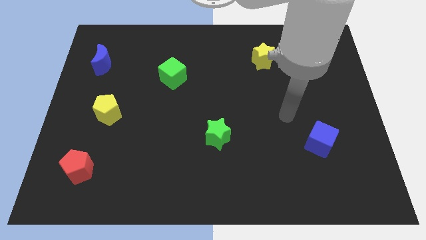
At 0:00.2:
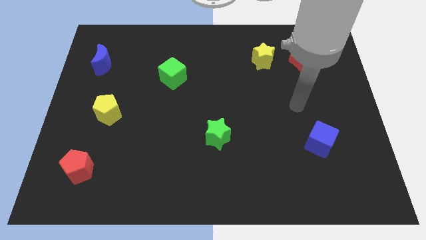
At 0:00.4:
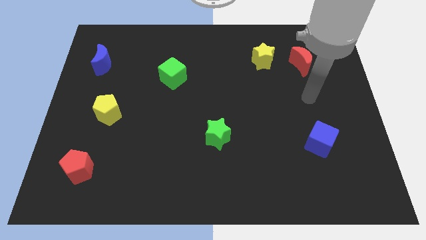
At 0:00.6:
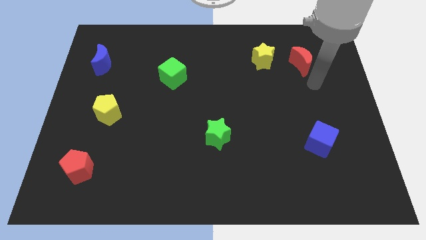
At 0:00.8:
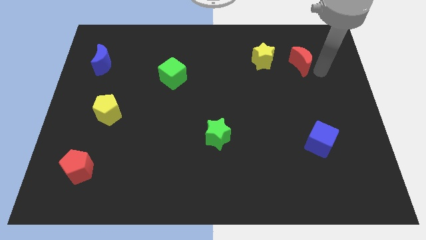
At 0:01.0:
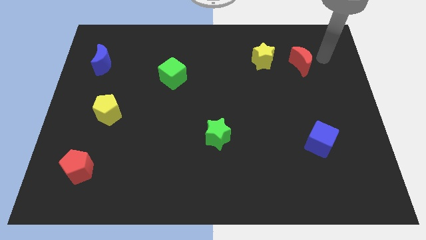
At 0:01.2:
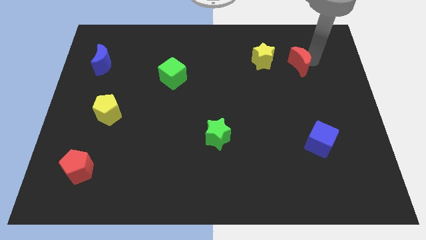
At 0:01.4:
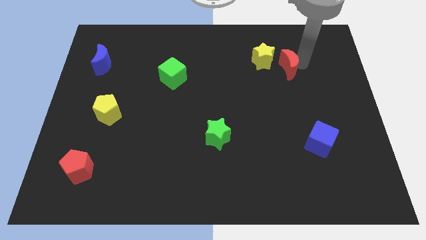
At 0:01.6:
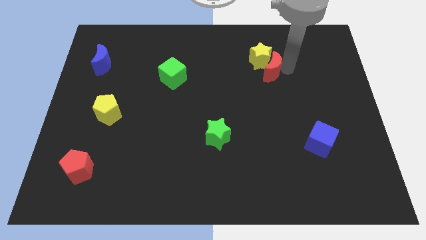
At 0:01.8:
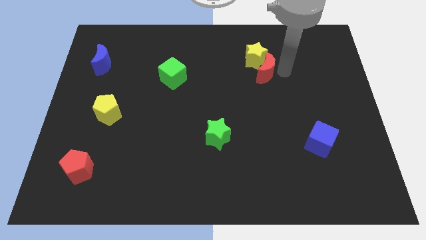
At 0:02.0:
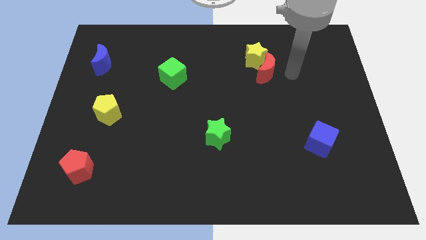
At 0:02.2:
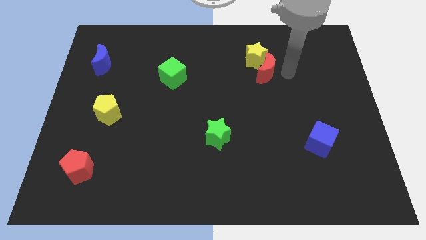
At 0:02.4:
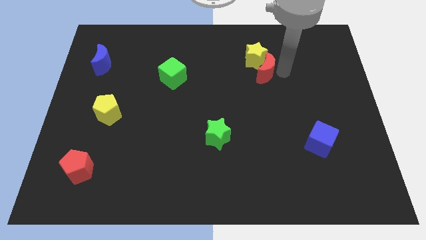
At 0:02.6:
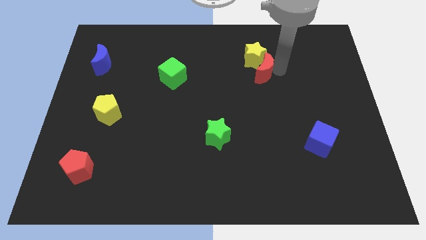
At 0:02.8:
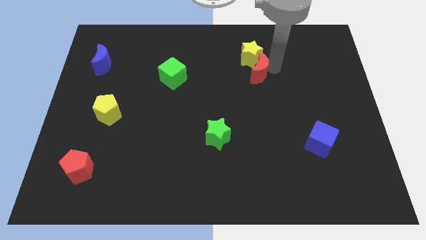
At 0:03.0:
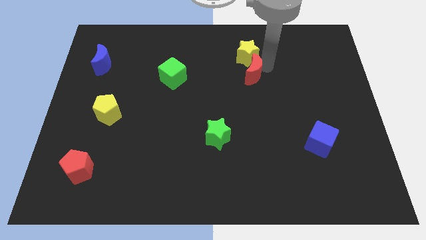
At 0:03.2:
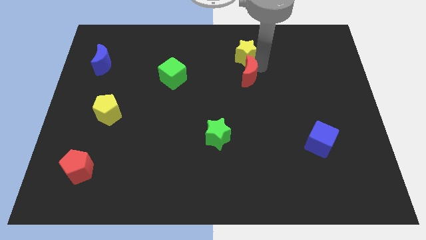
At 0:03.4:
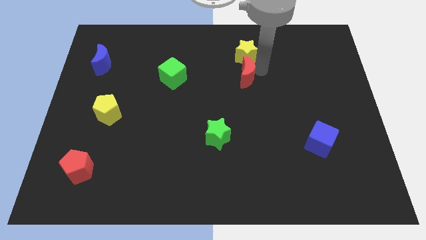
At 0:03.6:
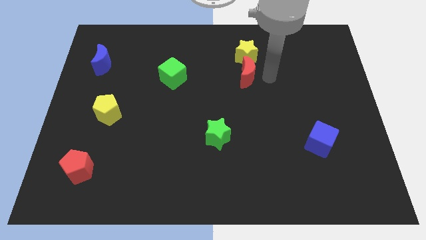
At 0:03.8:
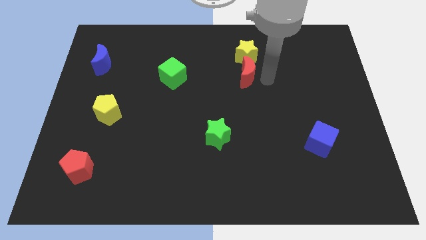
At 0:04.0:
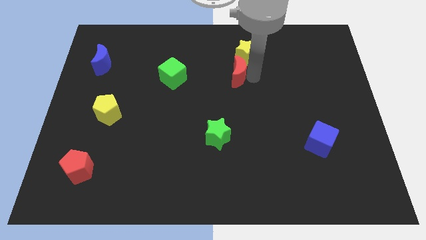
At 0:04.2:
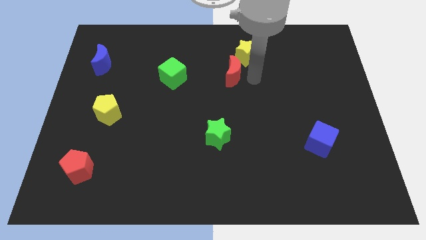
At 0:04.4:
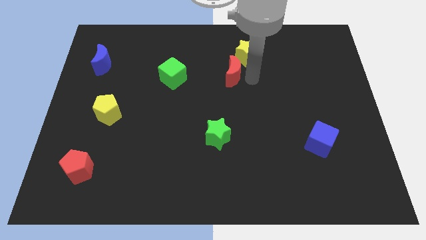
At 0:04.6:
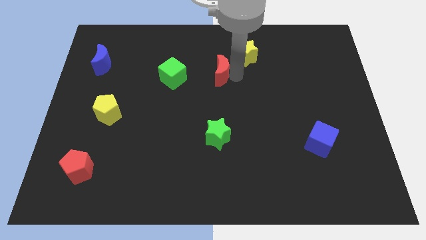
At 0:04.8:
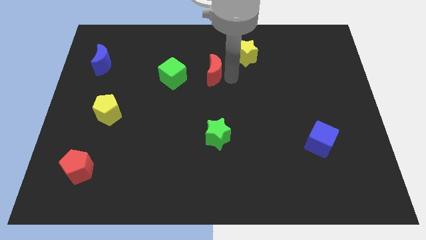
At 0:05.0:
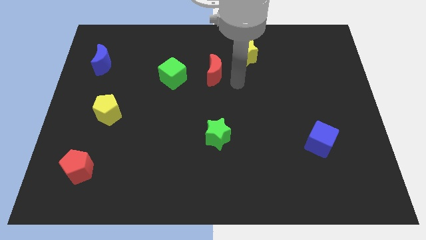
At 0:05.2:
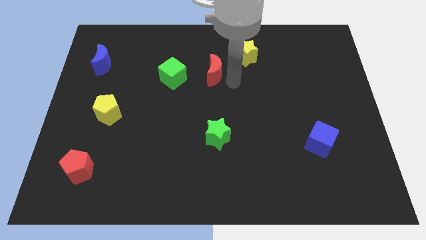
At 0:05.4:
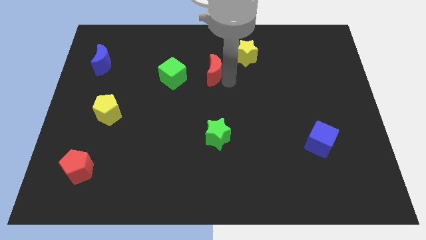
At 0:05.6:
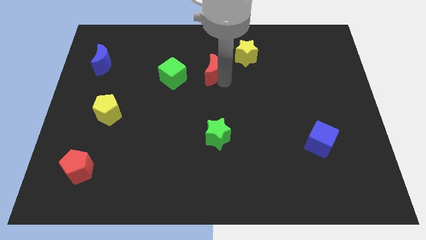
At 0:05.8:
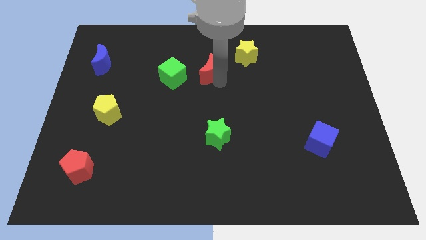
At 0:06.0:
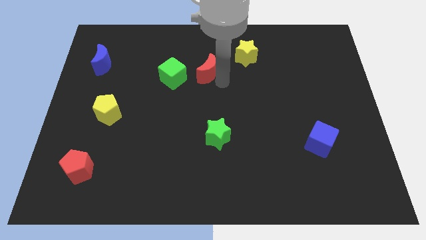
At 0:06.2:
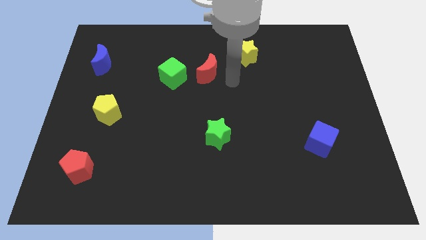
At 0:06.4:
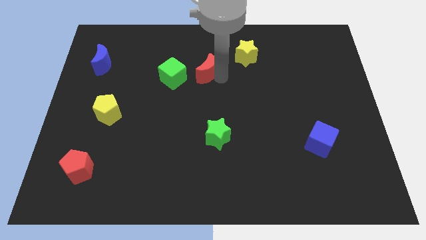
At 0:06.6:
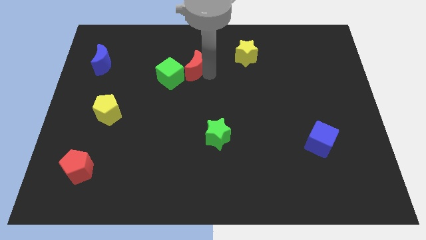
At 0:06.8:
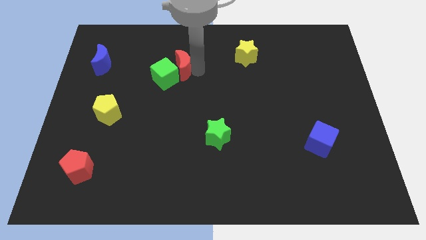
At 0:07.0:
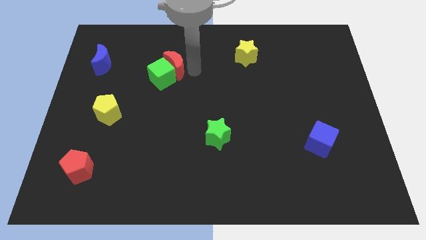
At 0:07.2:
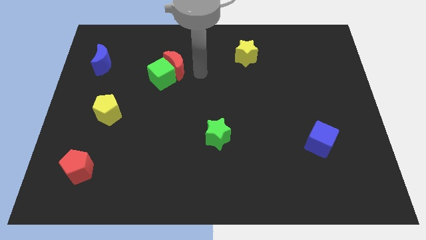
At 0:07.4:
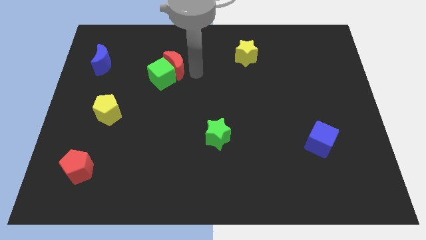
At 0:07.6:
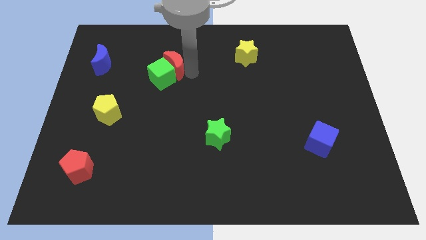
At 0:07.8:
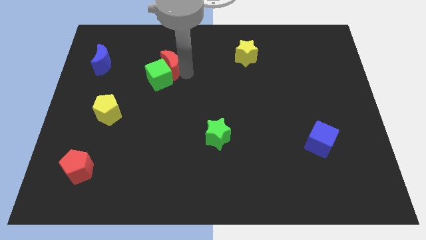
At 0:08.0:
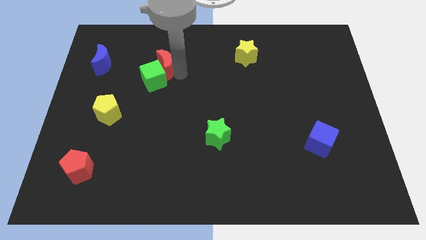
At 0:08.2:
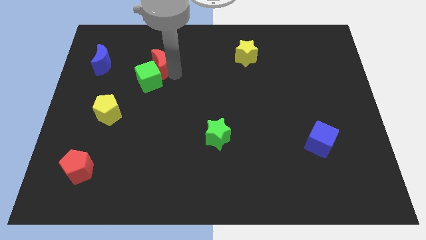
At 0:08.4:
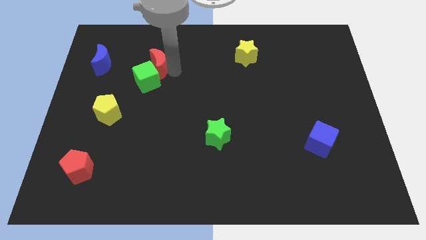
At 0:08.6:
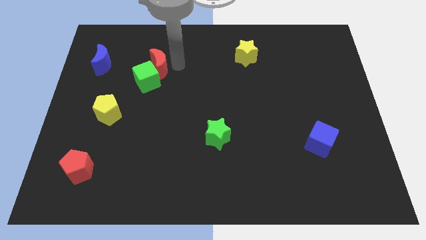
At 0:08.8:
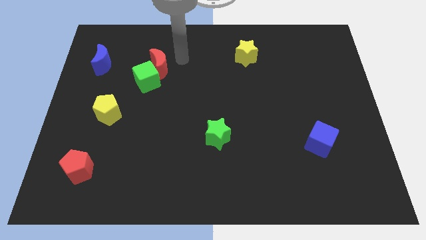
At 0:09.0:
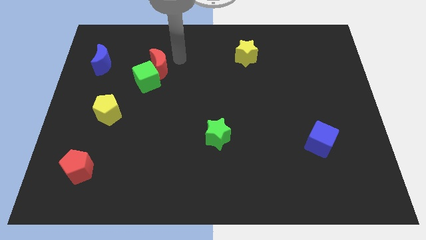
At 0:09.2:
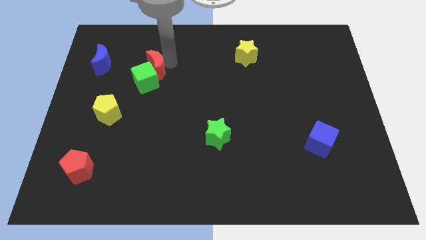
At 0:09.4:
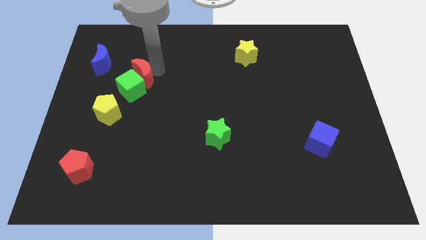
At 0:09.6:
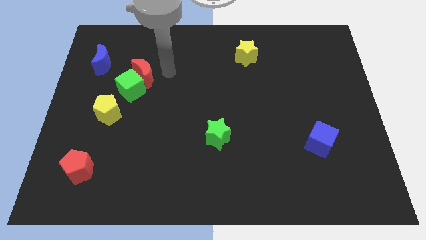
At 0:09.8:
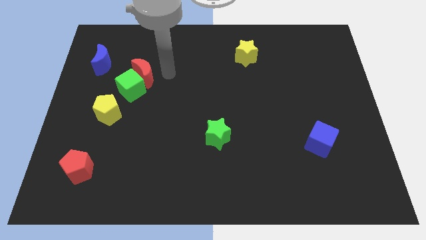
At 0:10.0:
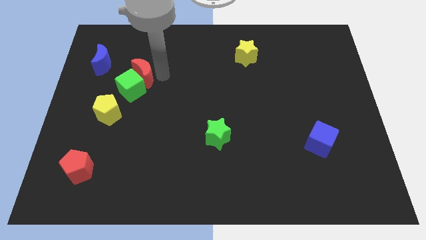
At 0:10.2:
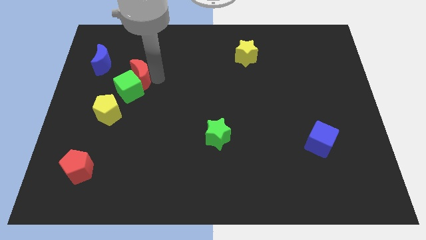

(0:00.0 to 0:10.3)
slide the red moon diagonally down and to the right of the blue moon

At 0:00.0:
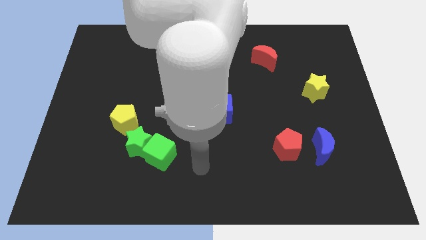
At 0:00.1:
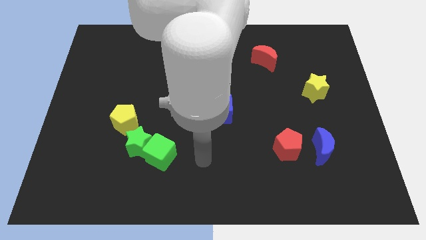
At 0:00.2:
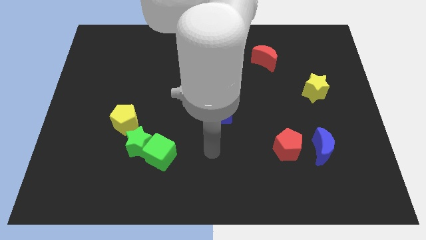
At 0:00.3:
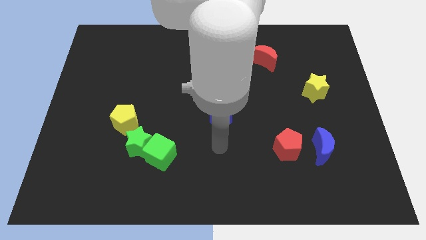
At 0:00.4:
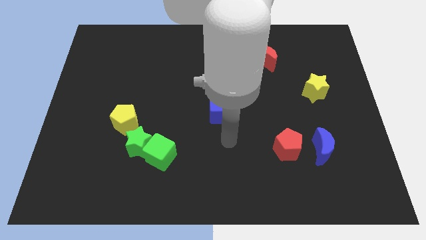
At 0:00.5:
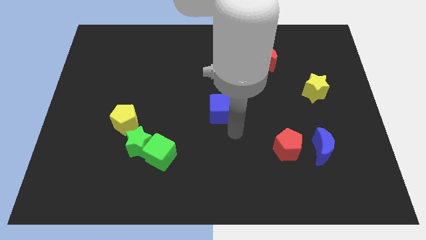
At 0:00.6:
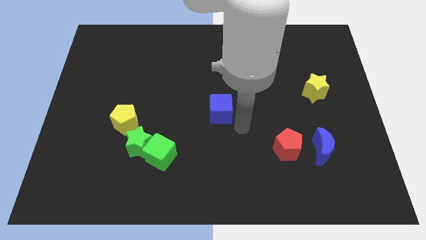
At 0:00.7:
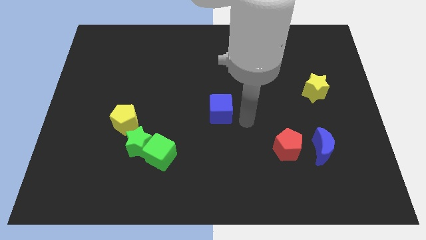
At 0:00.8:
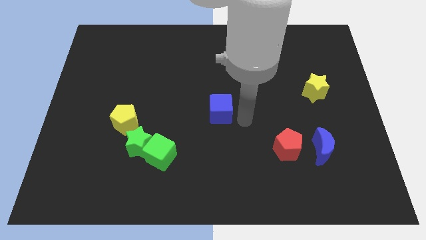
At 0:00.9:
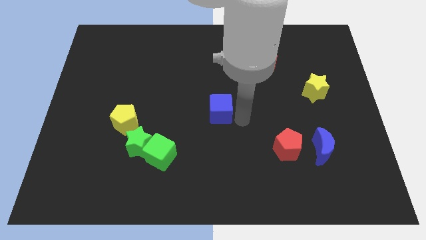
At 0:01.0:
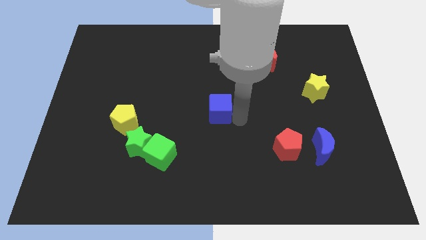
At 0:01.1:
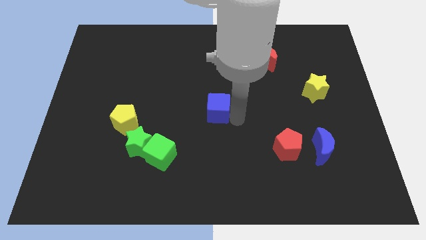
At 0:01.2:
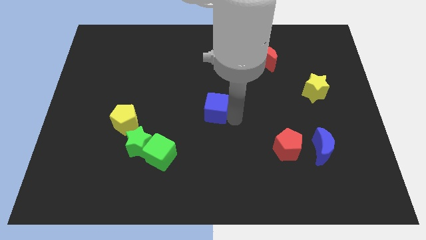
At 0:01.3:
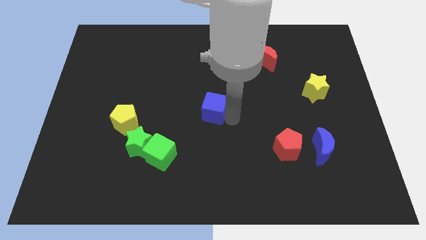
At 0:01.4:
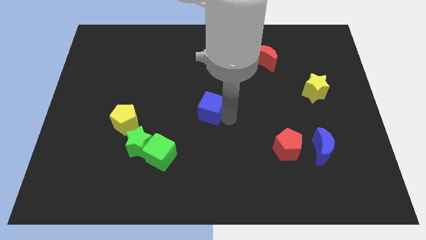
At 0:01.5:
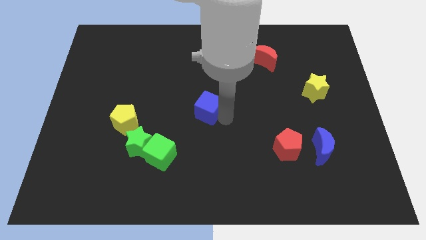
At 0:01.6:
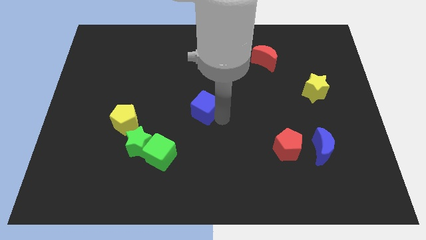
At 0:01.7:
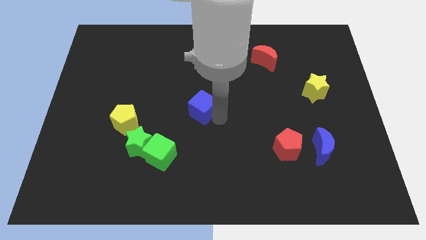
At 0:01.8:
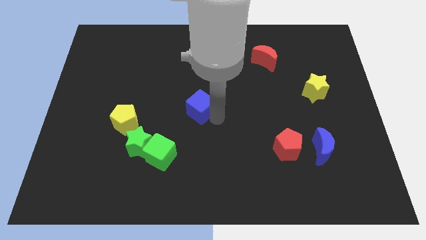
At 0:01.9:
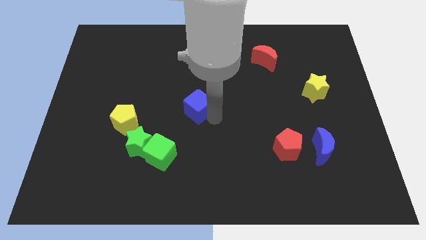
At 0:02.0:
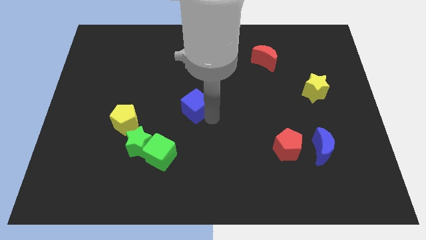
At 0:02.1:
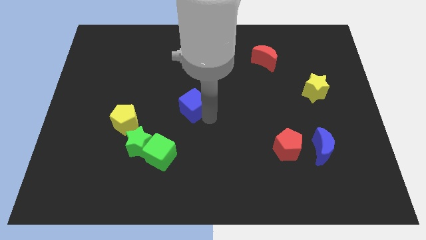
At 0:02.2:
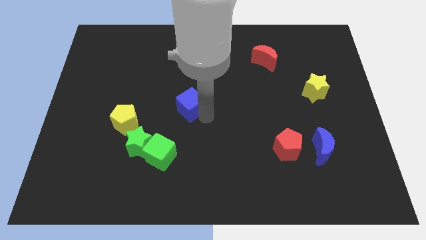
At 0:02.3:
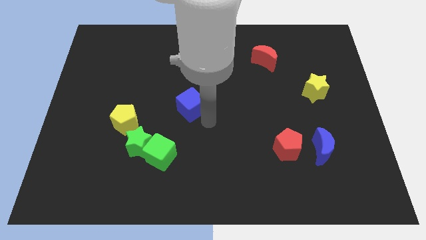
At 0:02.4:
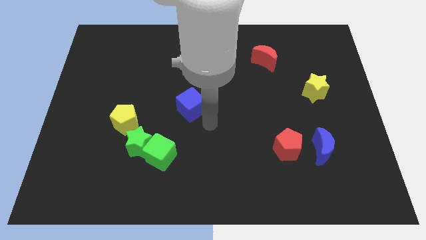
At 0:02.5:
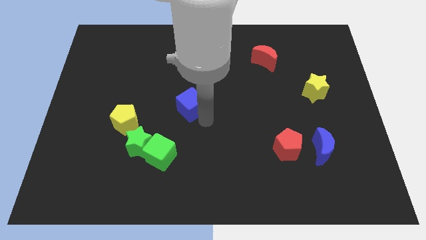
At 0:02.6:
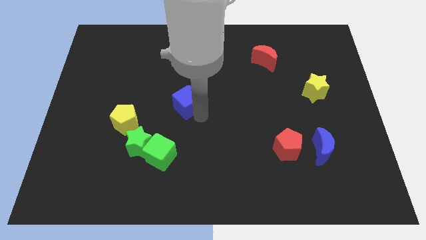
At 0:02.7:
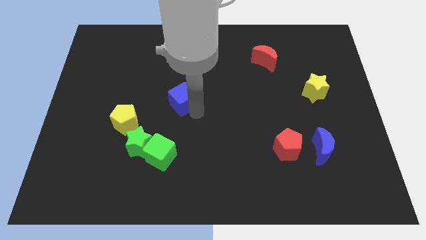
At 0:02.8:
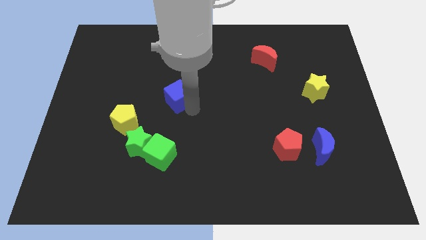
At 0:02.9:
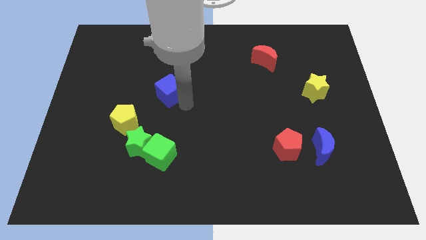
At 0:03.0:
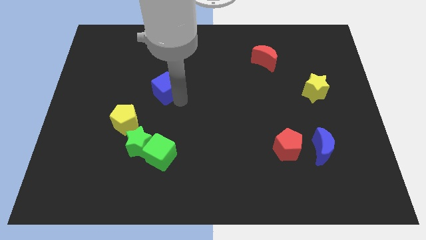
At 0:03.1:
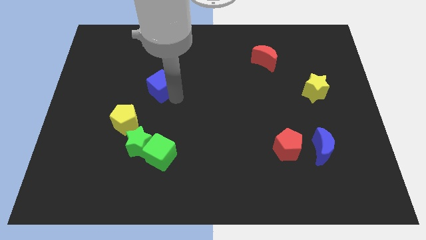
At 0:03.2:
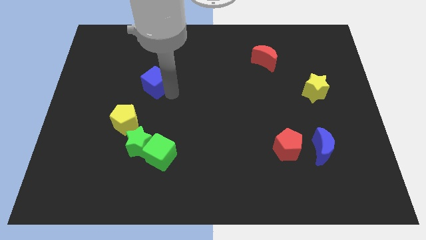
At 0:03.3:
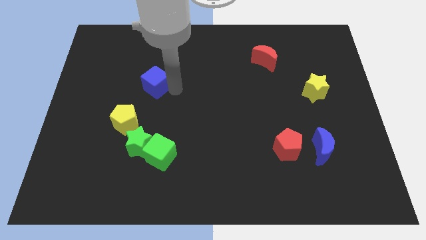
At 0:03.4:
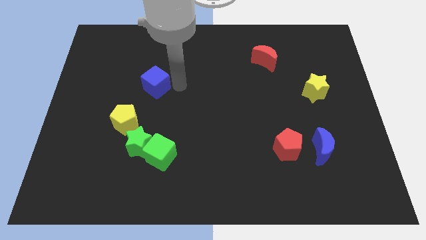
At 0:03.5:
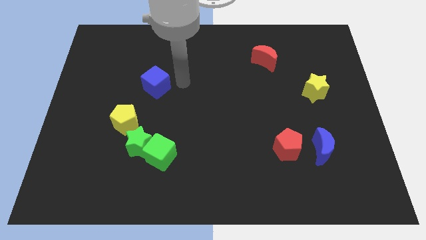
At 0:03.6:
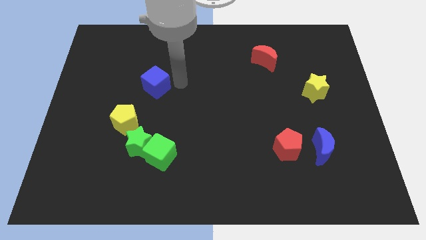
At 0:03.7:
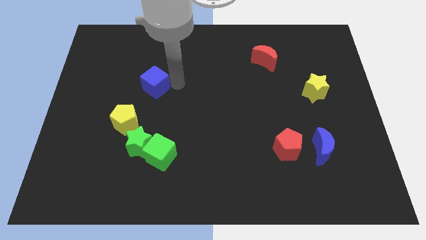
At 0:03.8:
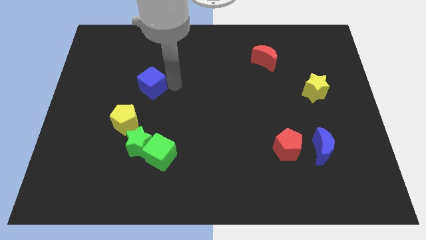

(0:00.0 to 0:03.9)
push the blue cube above the yellow pentagon

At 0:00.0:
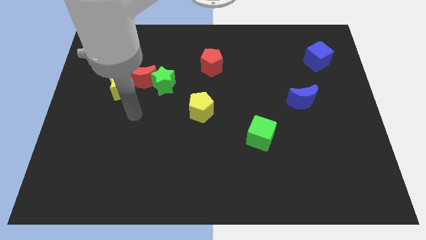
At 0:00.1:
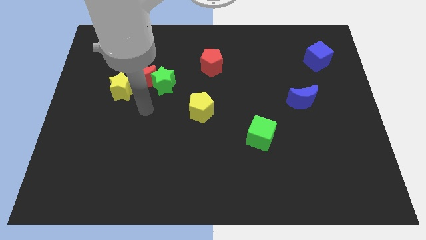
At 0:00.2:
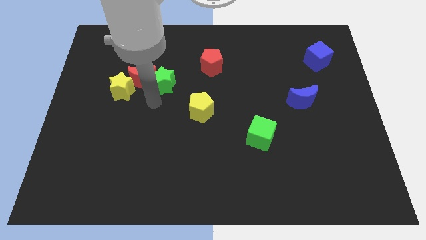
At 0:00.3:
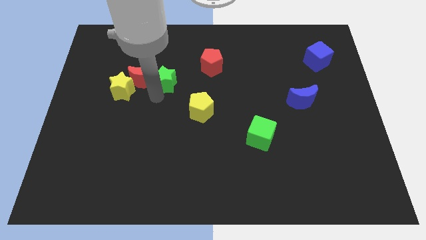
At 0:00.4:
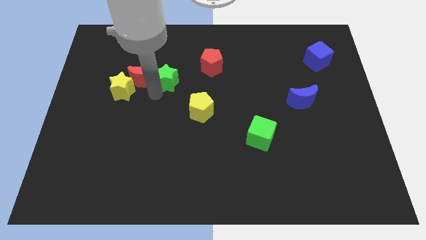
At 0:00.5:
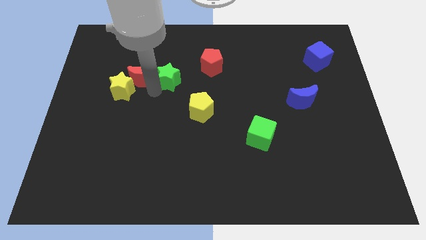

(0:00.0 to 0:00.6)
move the red moon above the yellow star
